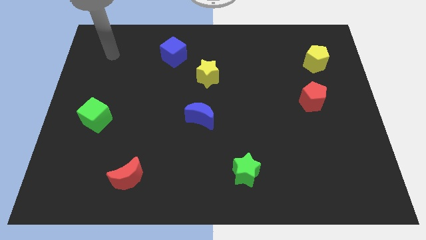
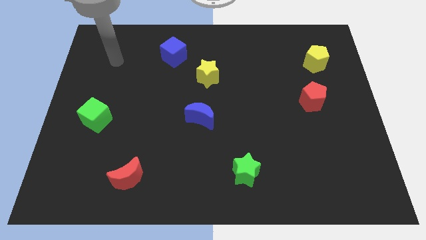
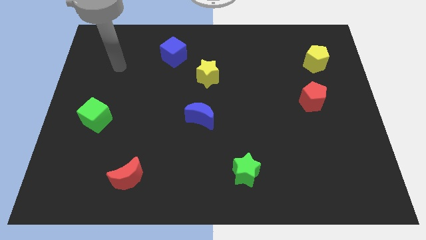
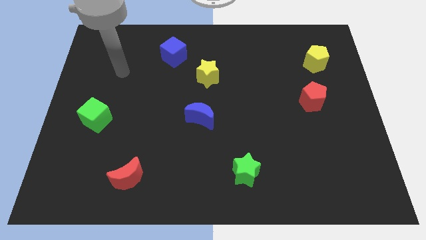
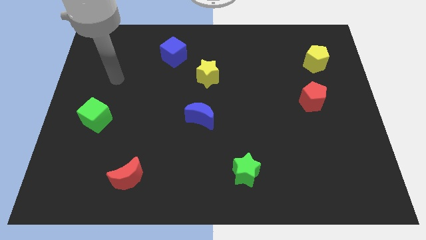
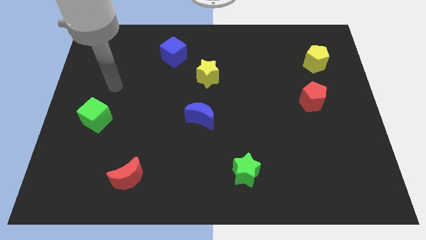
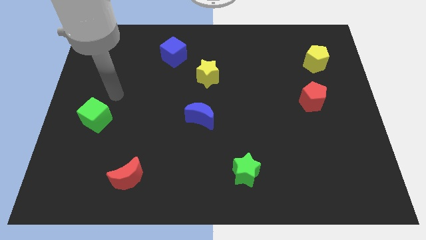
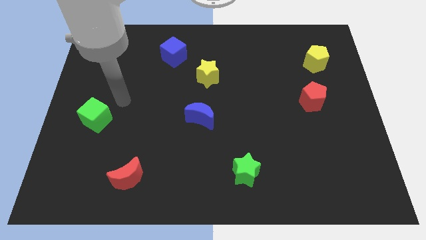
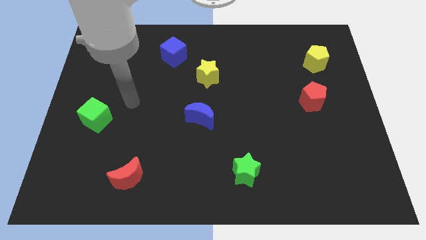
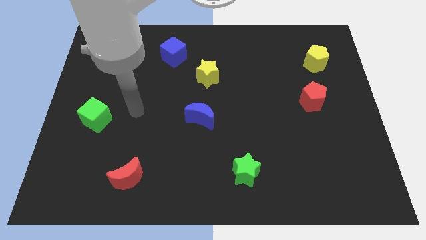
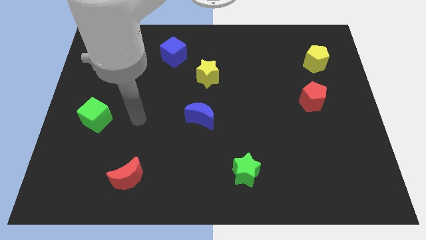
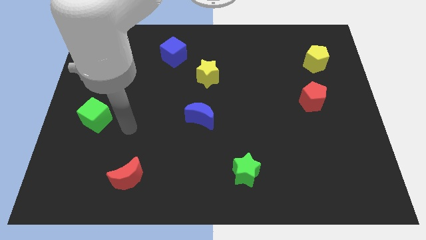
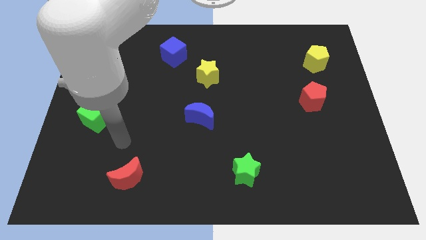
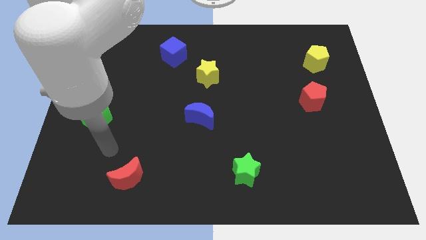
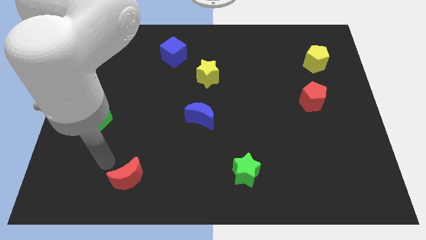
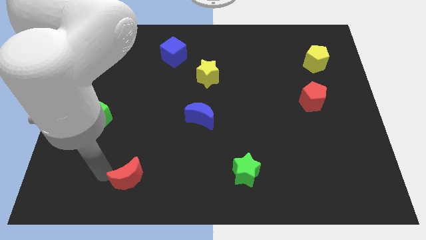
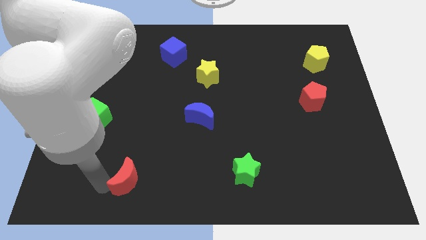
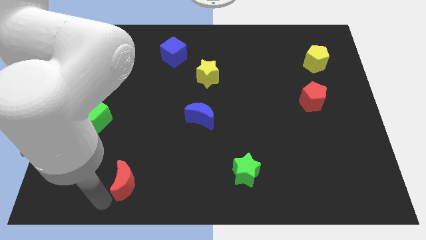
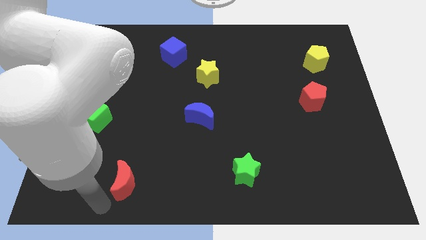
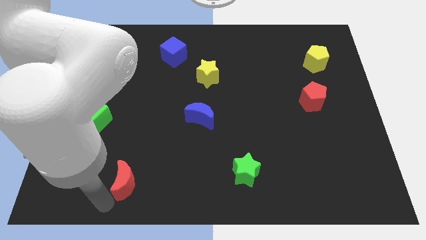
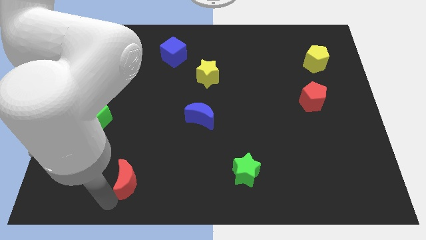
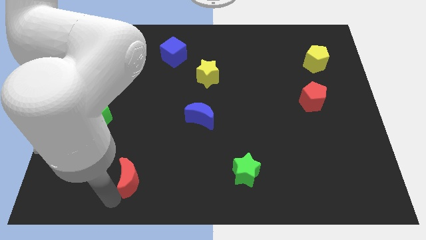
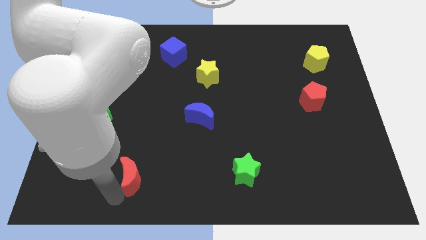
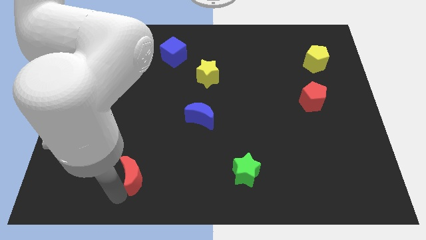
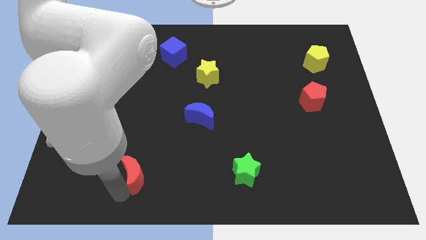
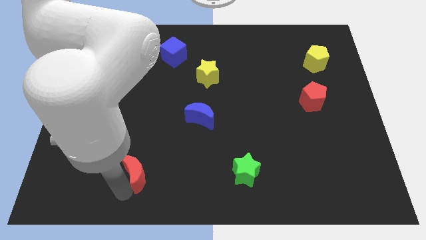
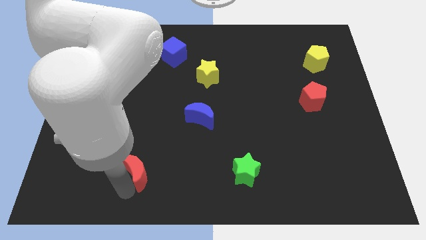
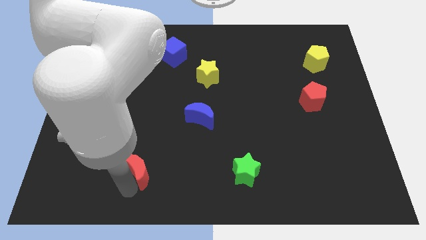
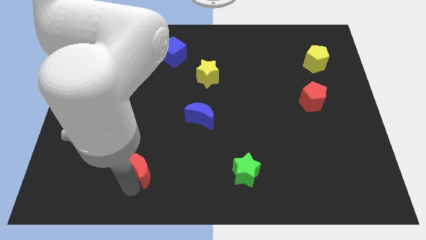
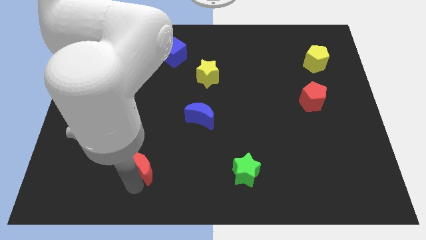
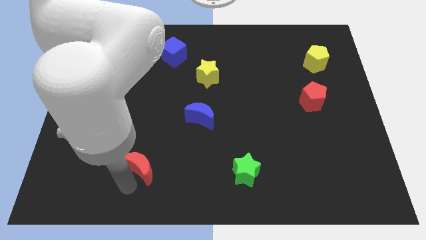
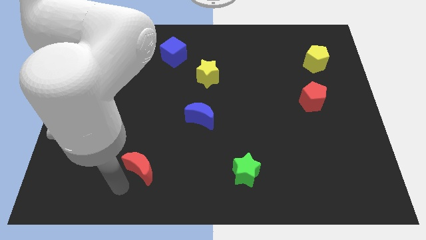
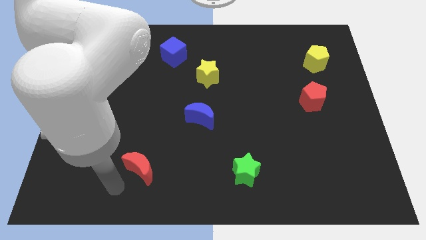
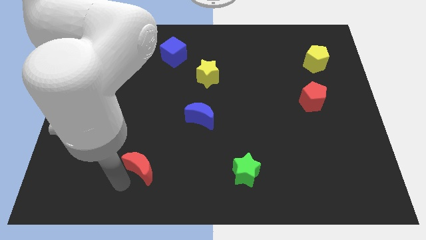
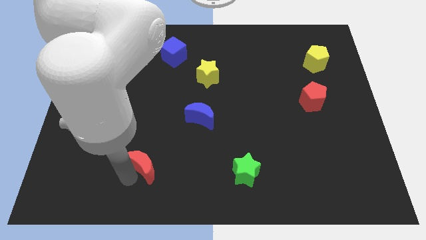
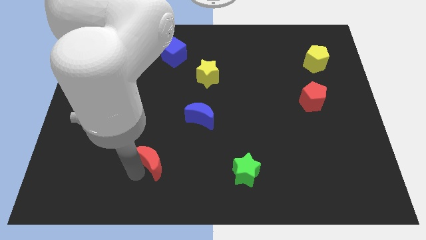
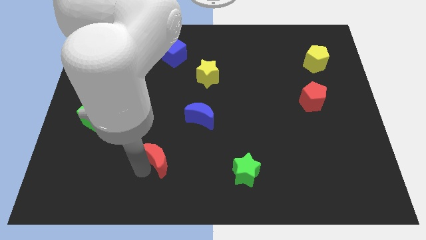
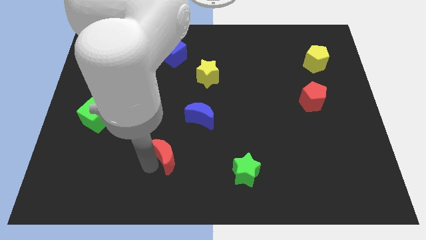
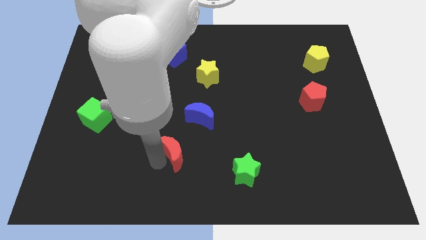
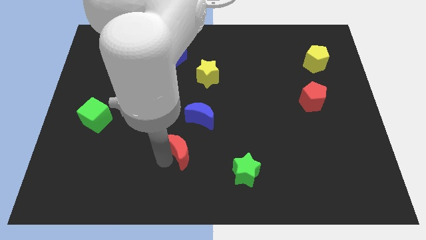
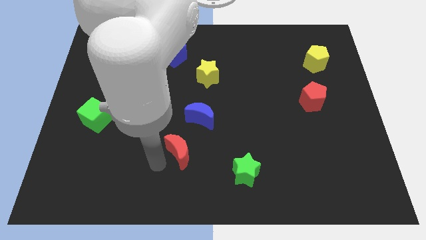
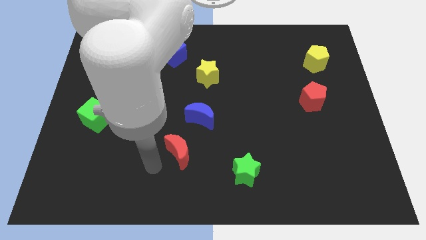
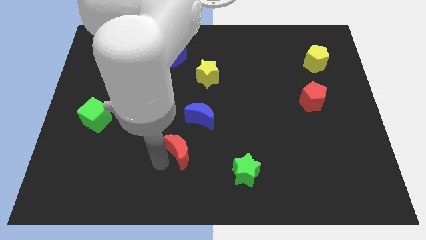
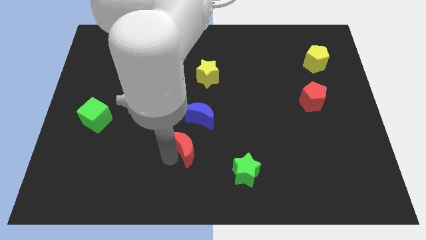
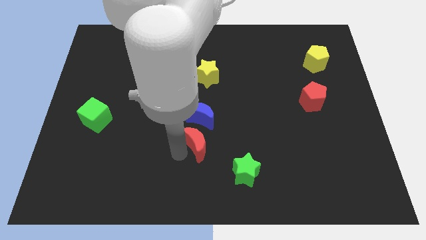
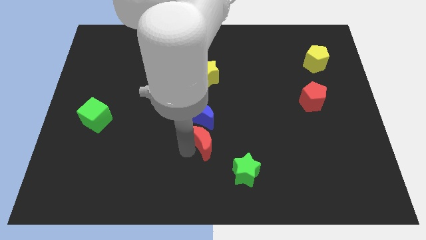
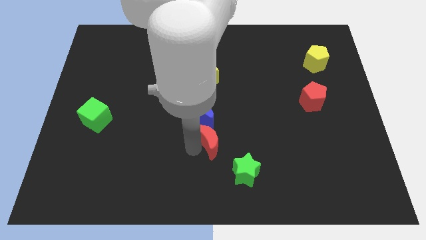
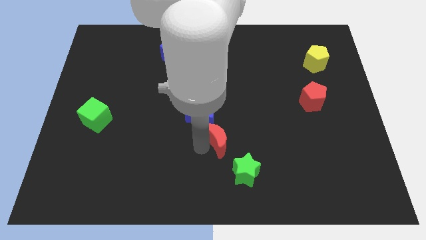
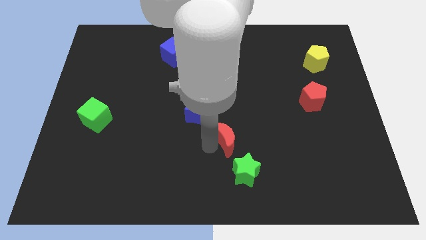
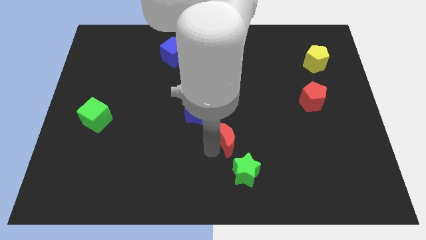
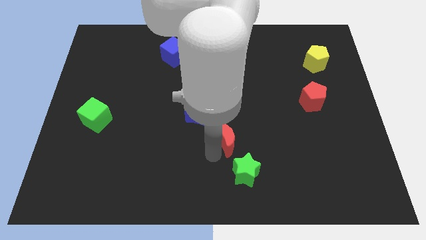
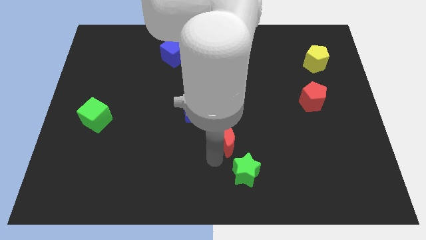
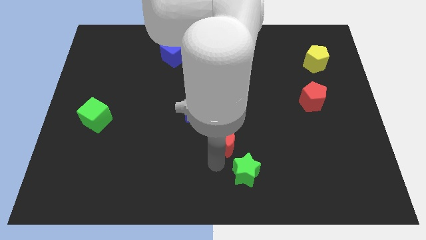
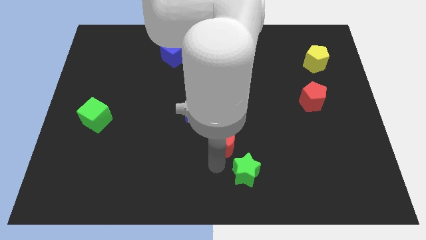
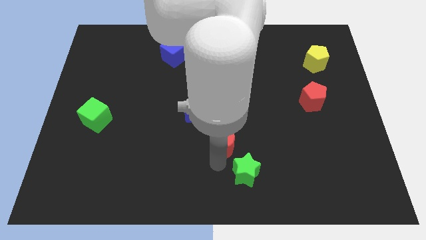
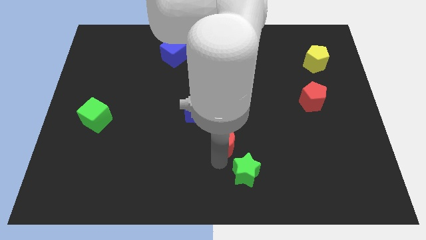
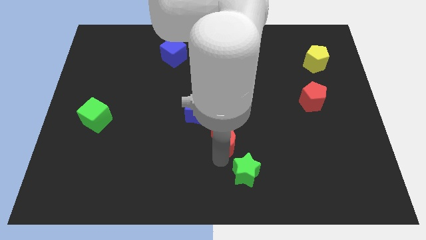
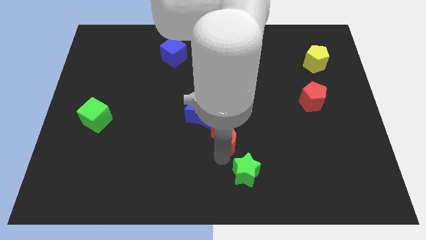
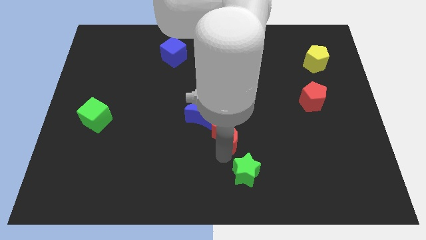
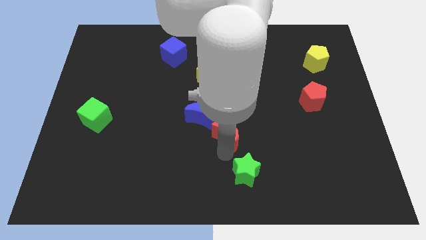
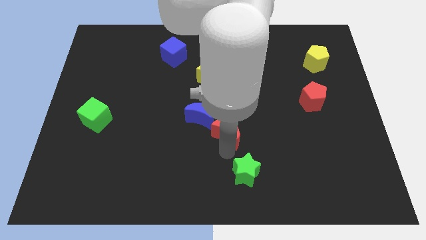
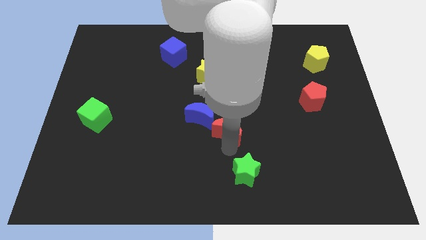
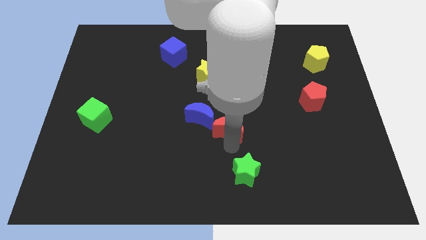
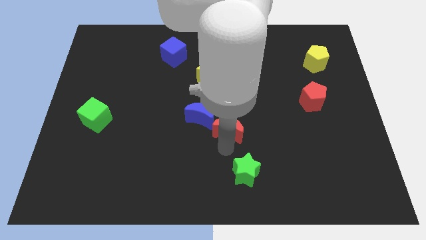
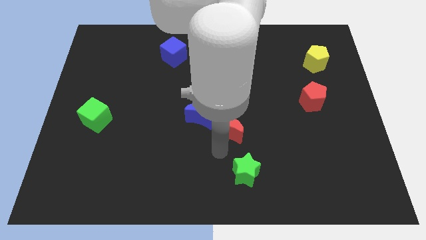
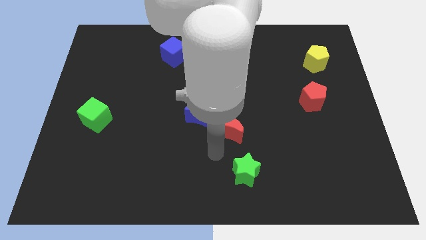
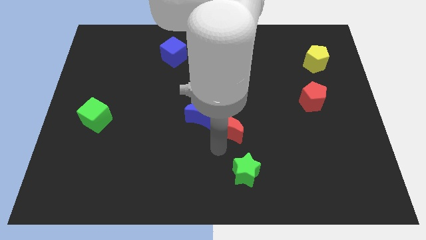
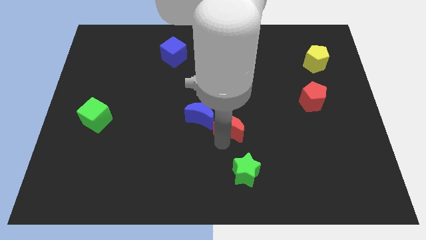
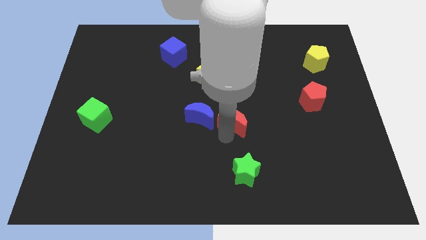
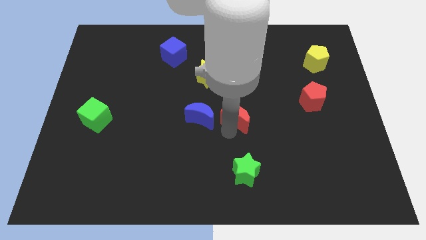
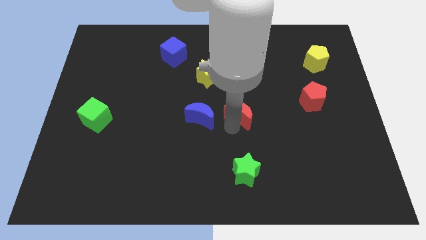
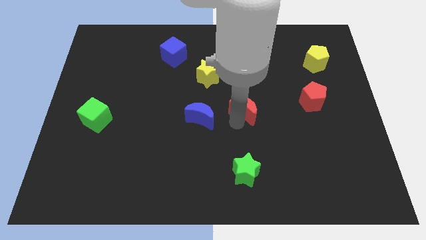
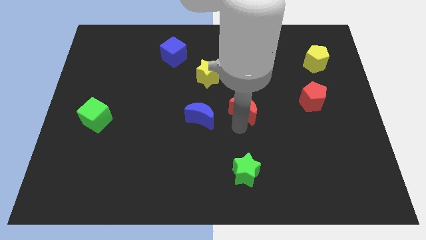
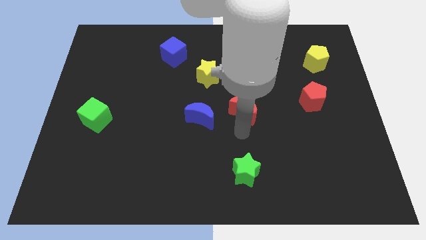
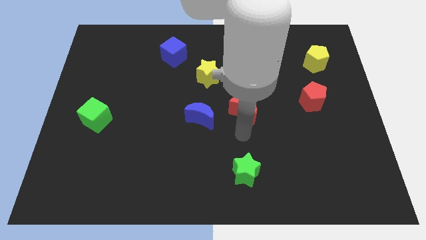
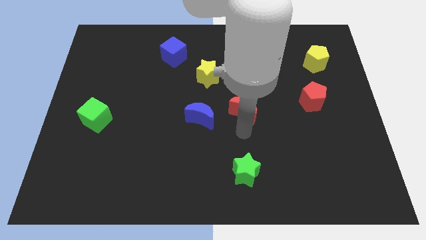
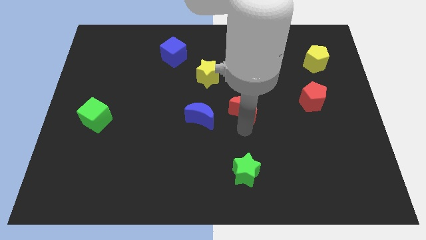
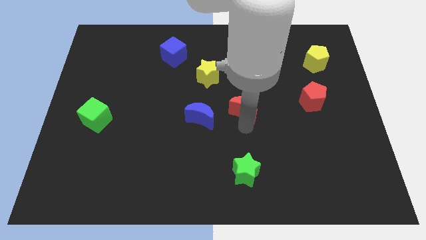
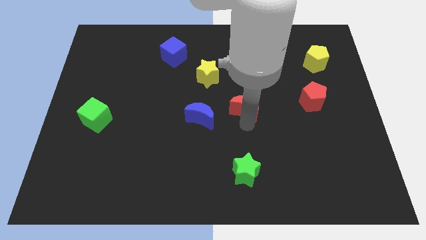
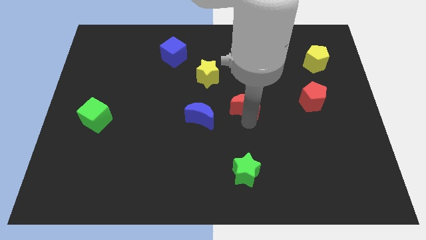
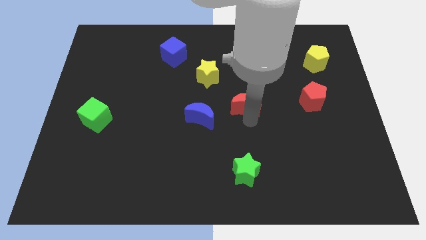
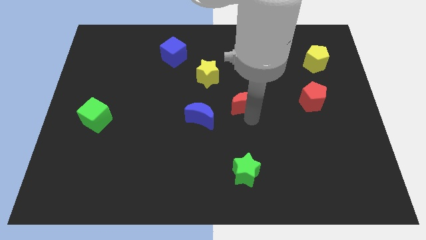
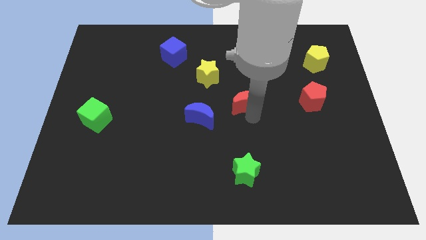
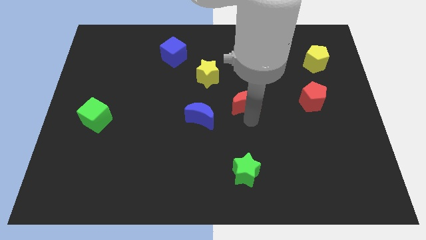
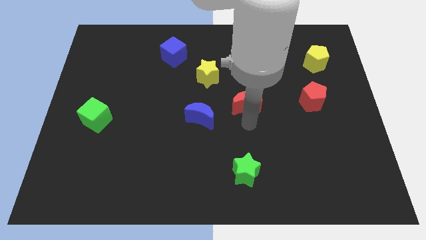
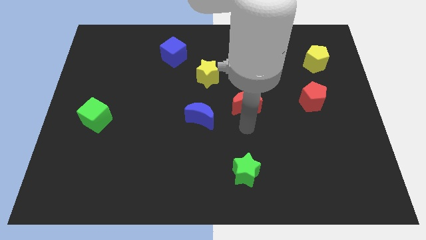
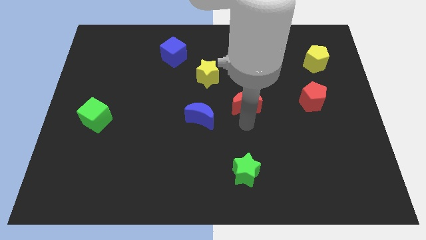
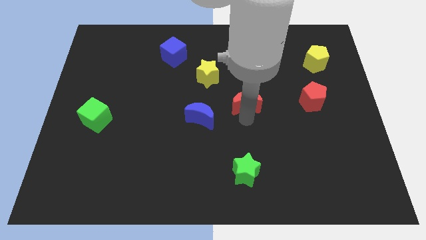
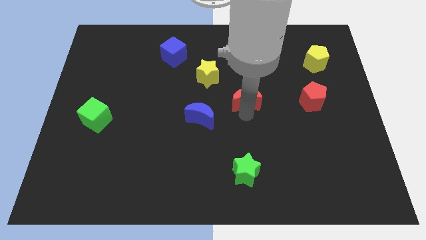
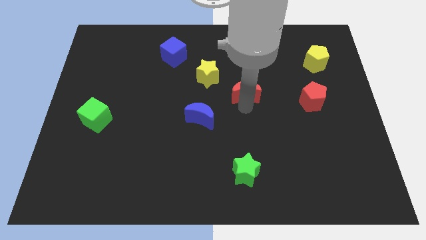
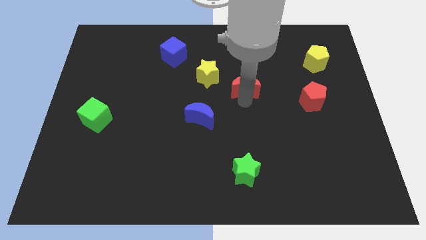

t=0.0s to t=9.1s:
put the red moon to the right of the yellow star
